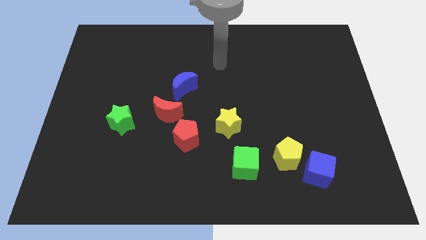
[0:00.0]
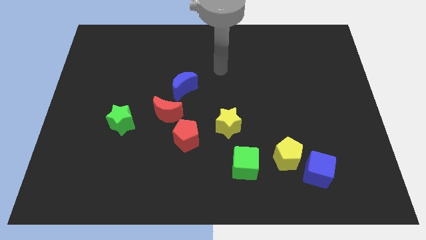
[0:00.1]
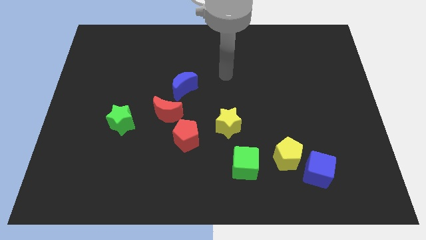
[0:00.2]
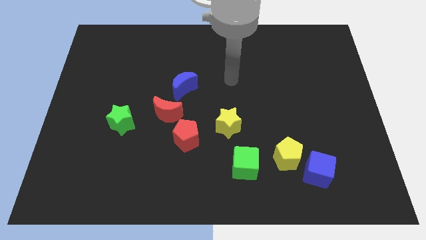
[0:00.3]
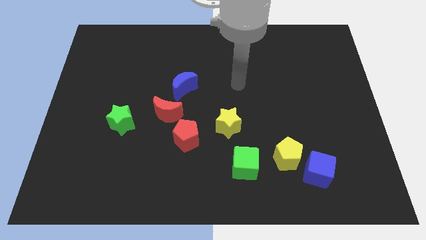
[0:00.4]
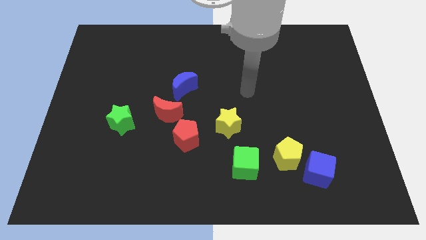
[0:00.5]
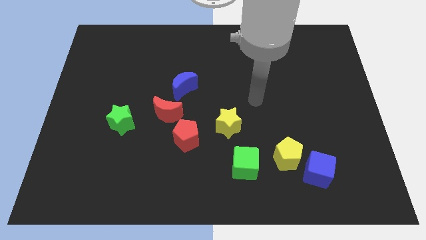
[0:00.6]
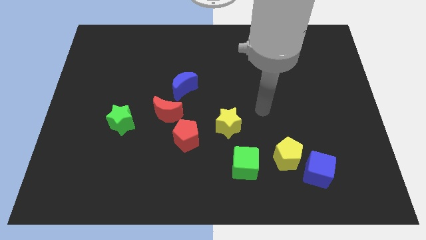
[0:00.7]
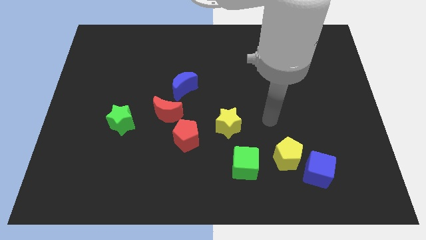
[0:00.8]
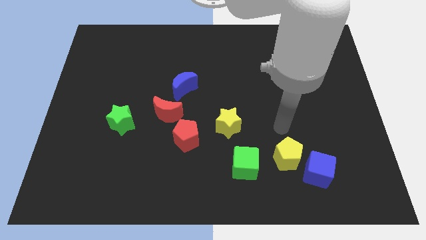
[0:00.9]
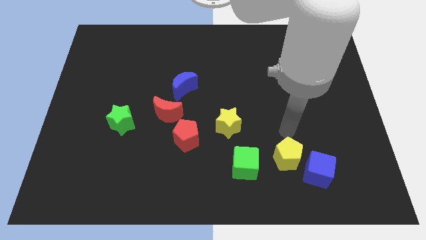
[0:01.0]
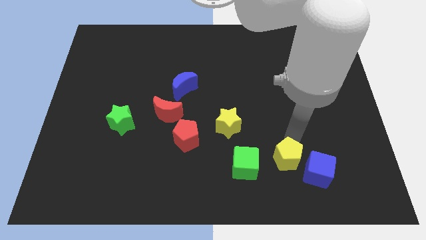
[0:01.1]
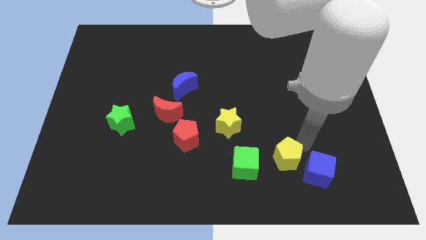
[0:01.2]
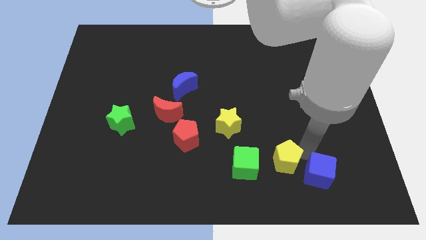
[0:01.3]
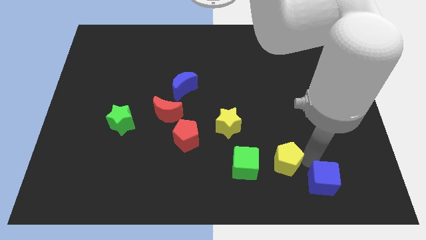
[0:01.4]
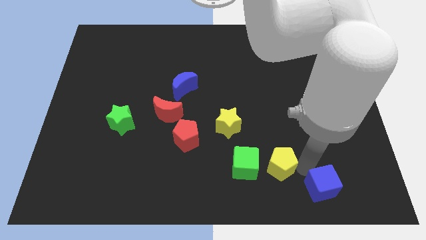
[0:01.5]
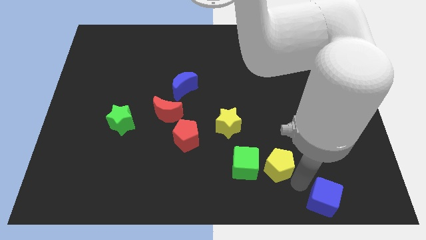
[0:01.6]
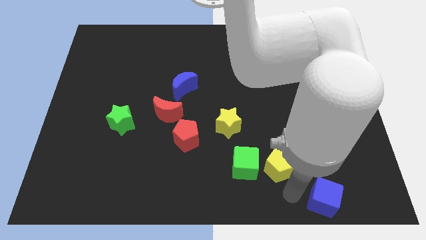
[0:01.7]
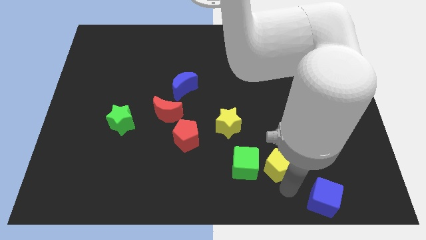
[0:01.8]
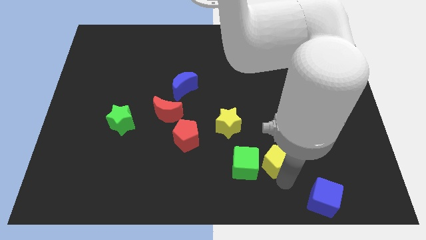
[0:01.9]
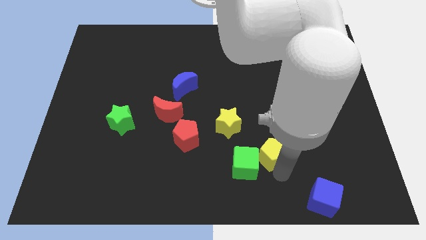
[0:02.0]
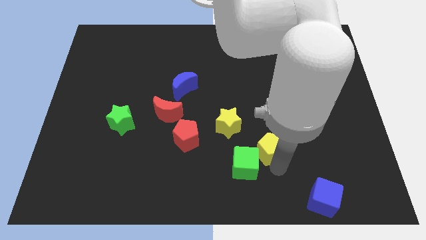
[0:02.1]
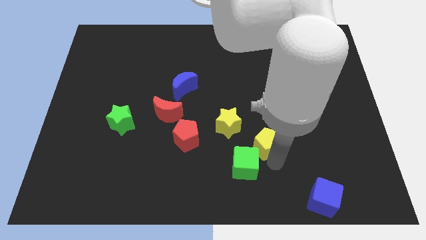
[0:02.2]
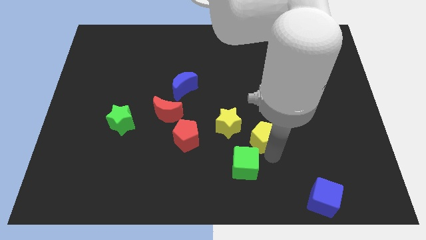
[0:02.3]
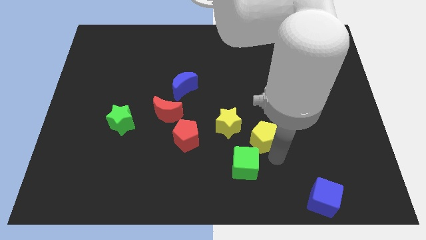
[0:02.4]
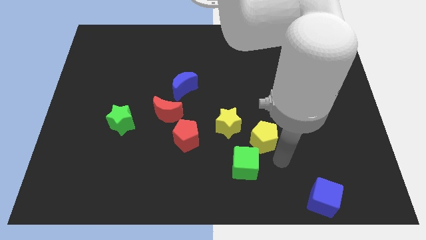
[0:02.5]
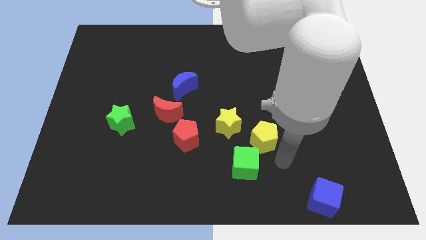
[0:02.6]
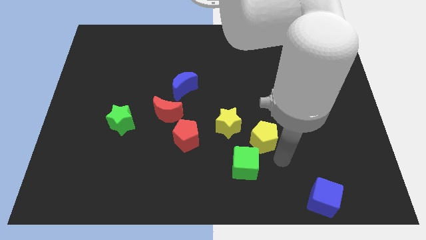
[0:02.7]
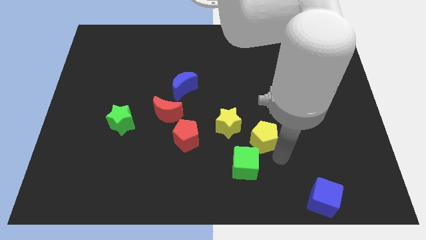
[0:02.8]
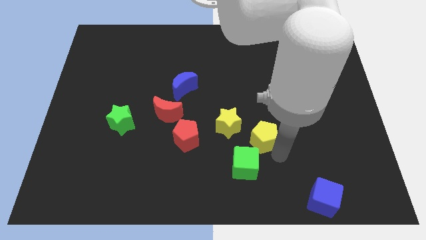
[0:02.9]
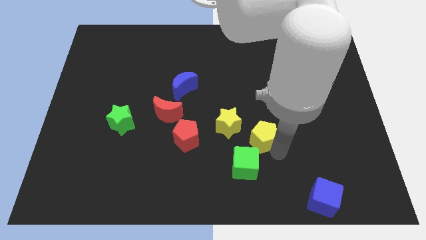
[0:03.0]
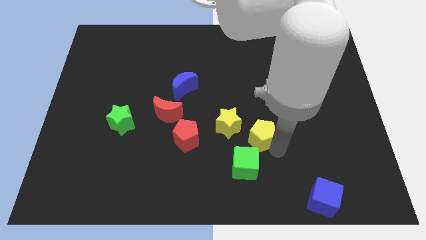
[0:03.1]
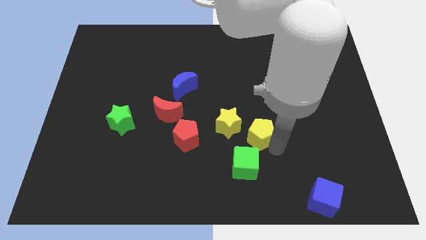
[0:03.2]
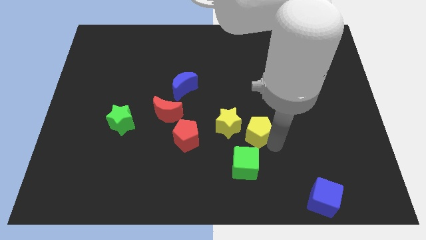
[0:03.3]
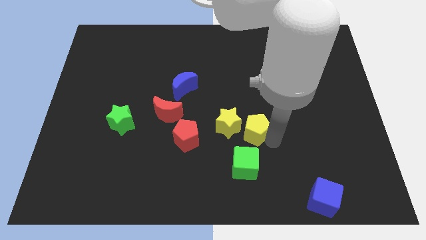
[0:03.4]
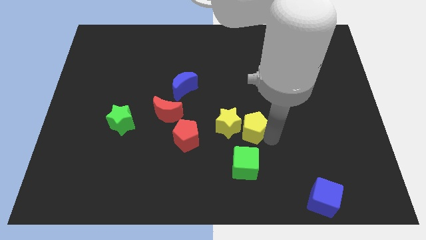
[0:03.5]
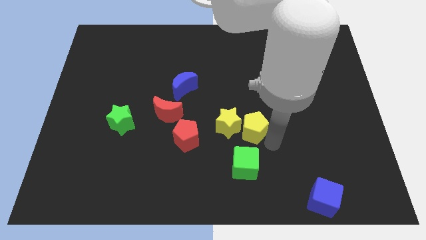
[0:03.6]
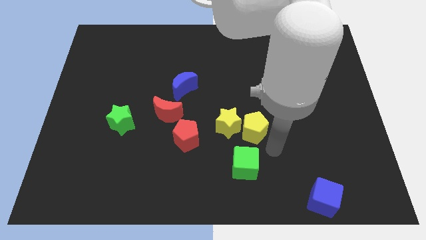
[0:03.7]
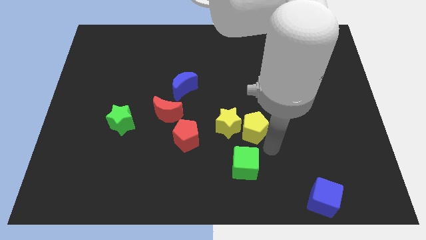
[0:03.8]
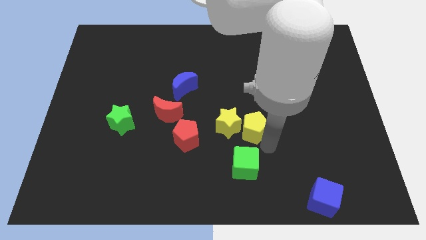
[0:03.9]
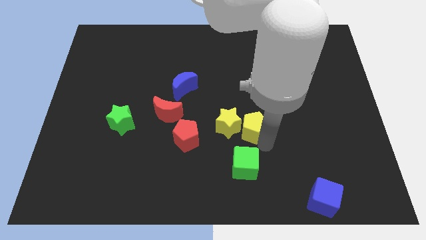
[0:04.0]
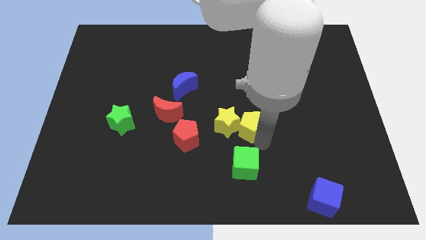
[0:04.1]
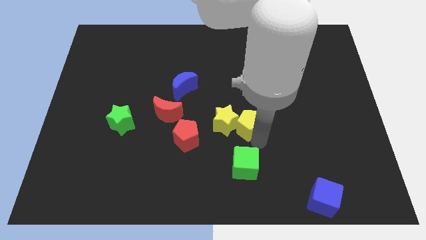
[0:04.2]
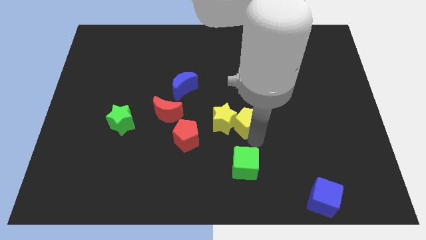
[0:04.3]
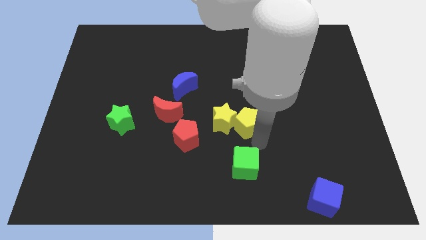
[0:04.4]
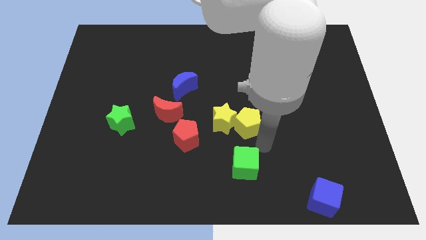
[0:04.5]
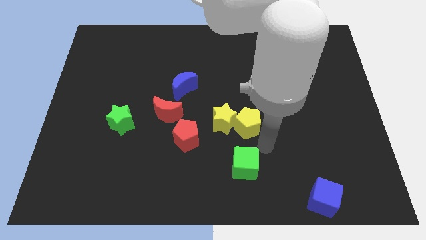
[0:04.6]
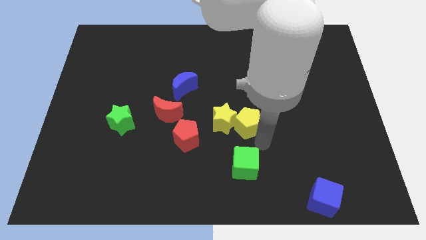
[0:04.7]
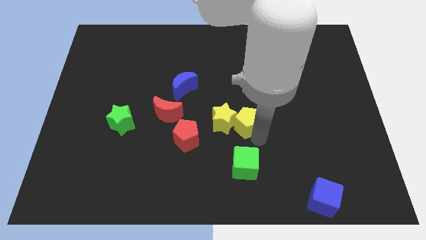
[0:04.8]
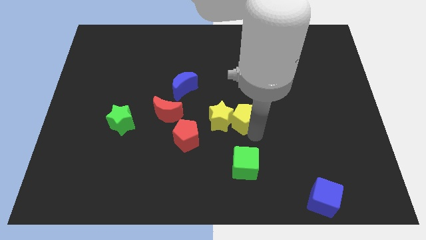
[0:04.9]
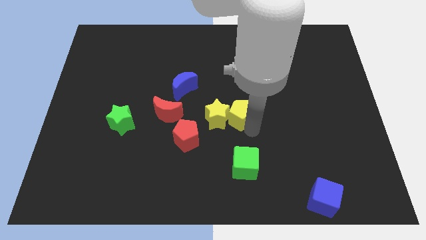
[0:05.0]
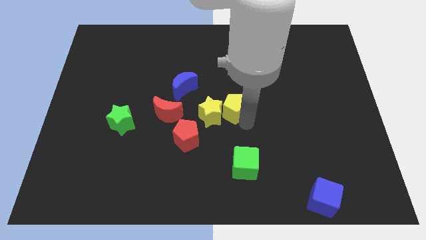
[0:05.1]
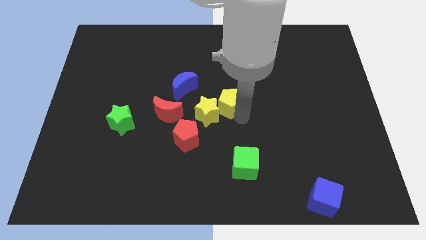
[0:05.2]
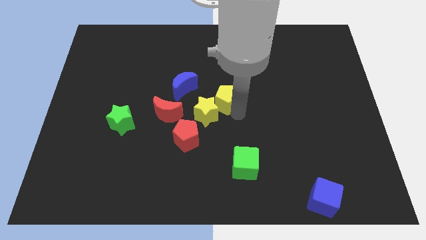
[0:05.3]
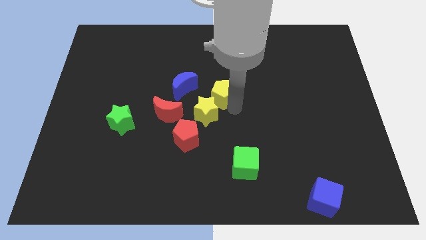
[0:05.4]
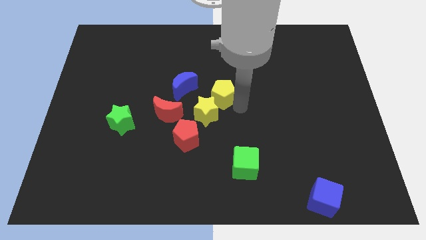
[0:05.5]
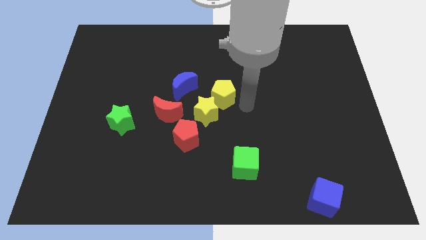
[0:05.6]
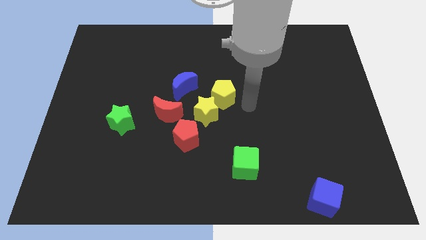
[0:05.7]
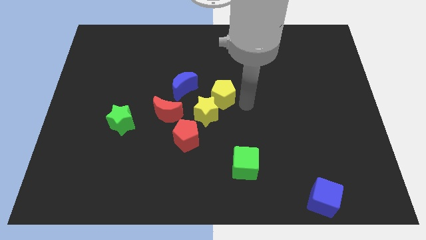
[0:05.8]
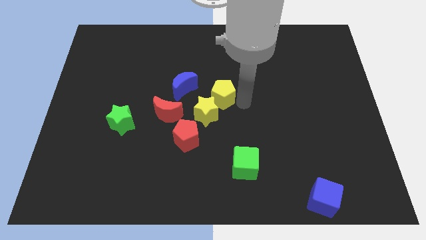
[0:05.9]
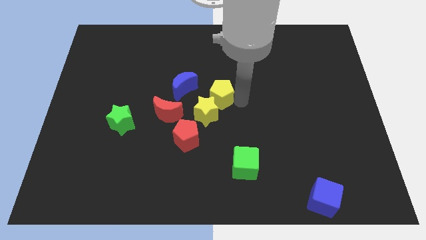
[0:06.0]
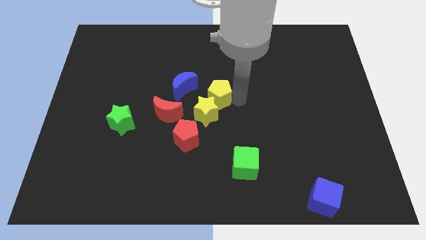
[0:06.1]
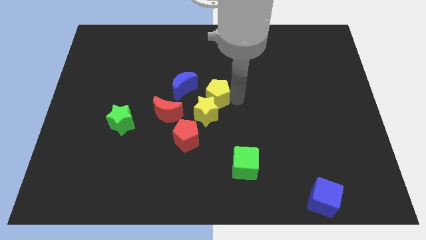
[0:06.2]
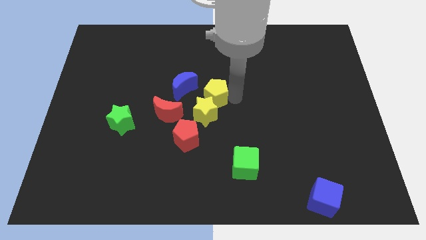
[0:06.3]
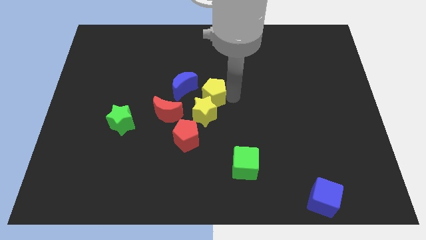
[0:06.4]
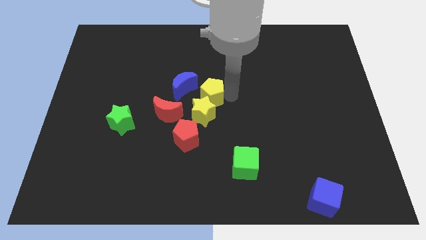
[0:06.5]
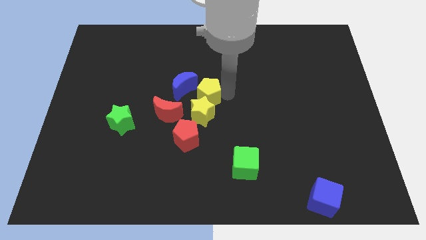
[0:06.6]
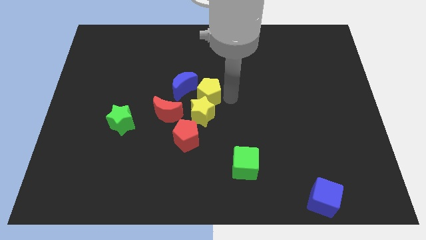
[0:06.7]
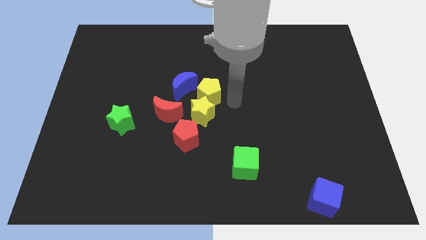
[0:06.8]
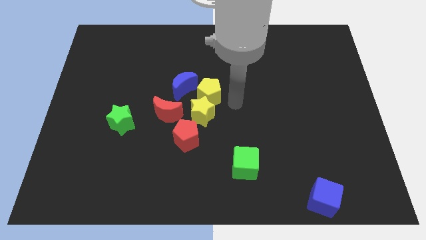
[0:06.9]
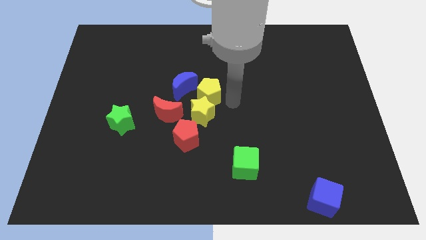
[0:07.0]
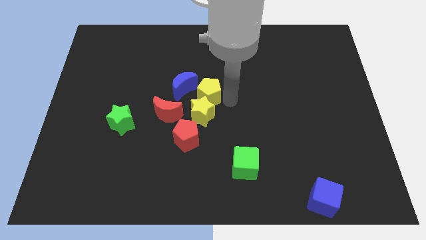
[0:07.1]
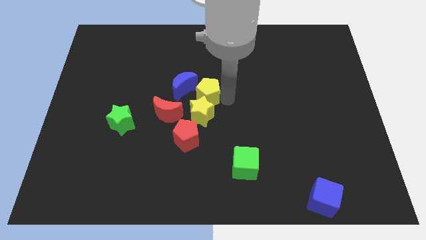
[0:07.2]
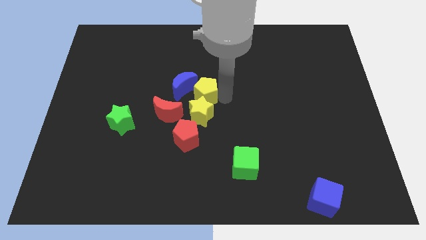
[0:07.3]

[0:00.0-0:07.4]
push the yellow pentagon to the blue moon

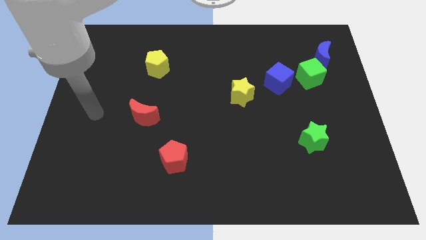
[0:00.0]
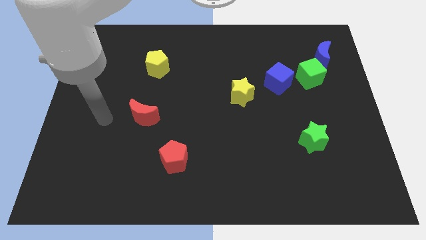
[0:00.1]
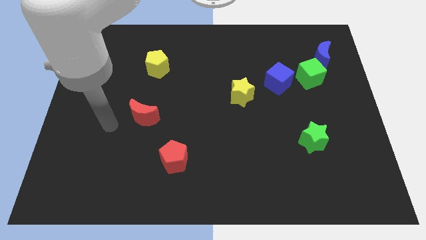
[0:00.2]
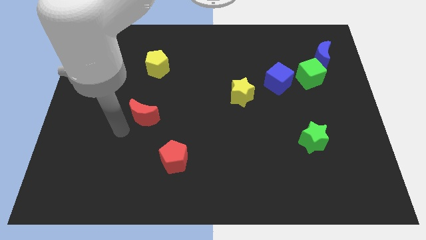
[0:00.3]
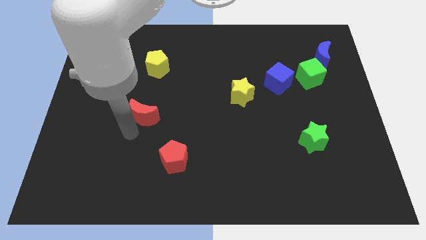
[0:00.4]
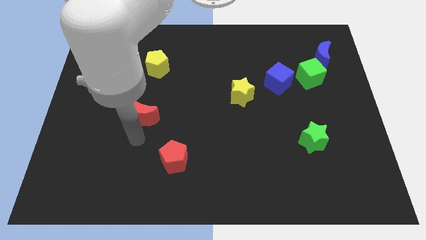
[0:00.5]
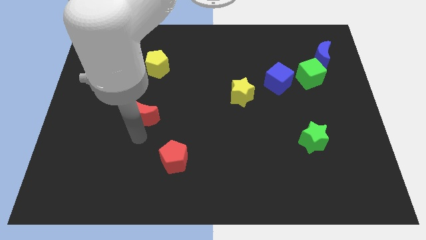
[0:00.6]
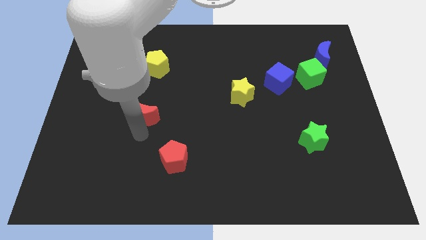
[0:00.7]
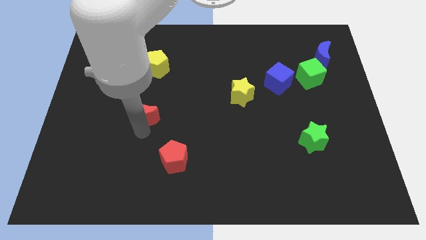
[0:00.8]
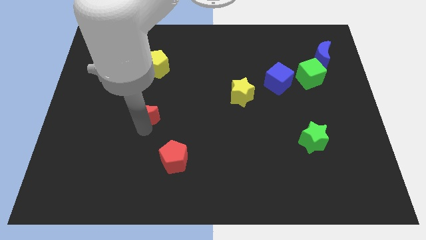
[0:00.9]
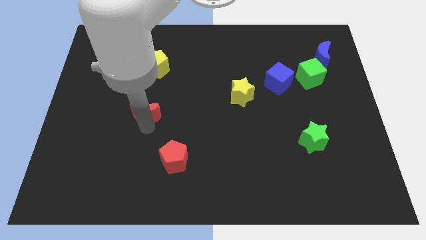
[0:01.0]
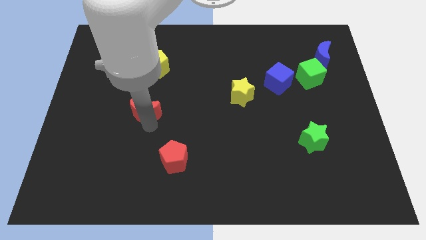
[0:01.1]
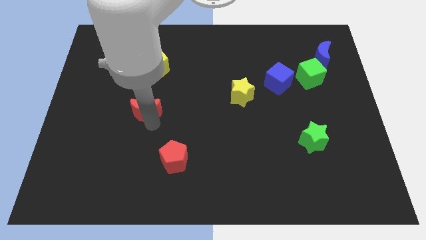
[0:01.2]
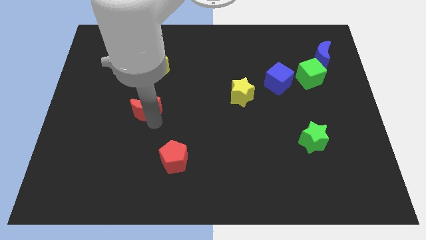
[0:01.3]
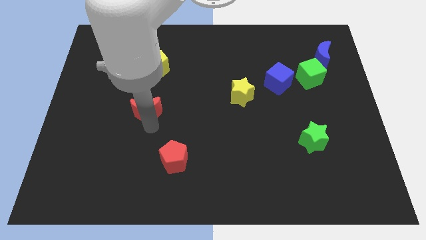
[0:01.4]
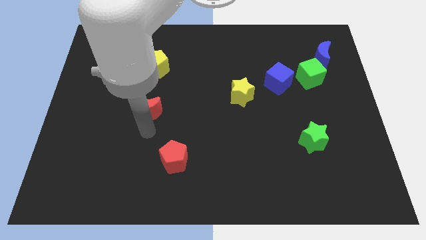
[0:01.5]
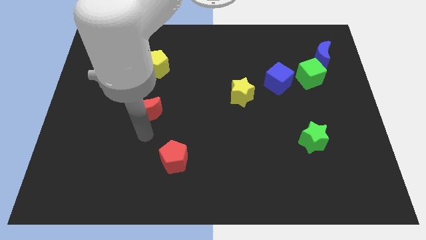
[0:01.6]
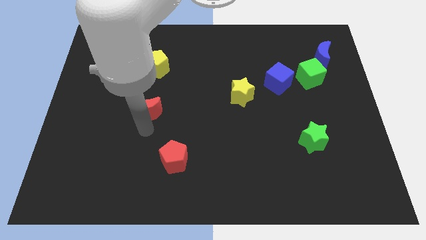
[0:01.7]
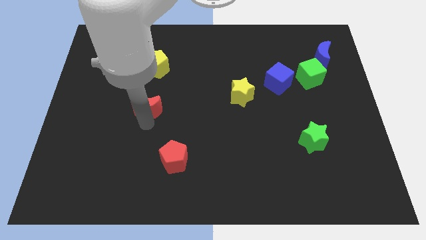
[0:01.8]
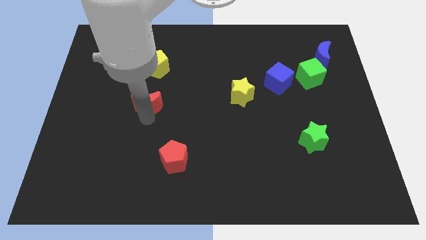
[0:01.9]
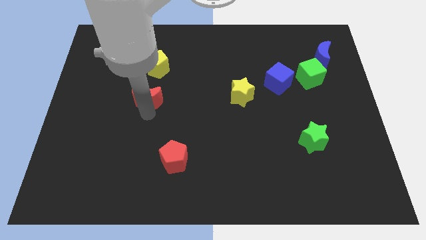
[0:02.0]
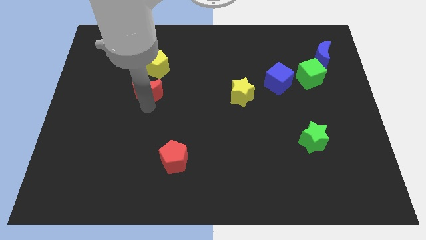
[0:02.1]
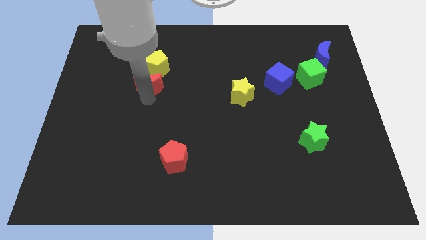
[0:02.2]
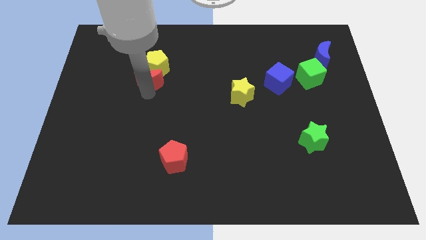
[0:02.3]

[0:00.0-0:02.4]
move the red moon next to the yellow pentagon
